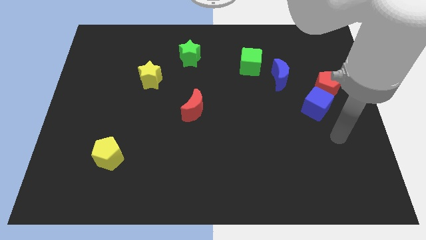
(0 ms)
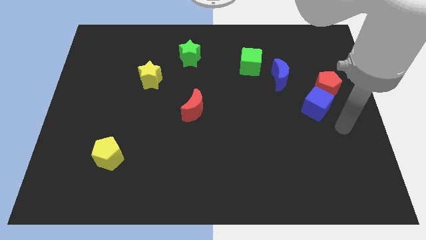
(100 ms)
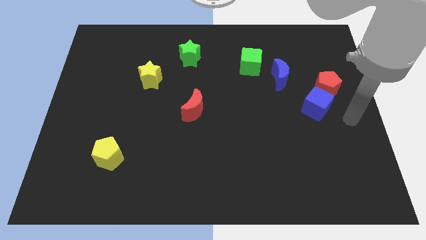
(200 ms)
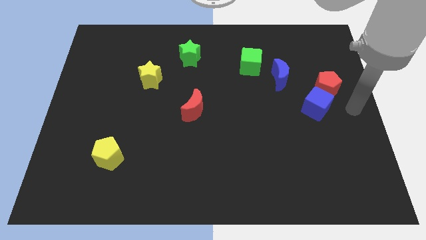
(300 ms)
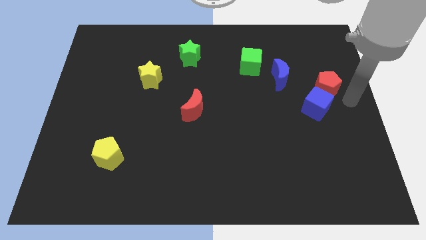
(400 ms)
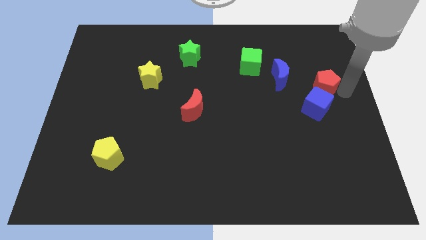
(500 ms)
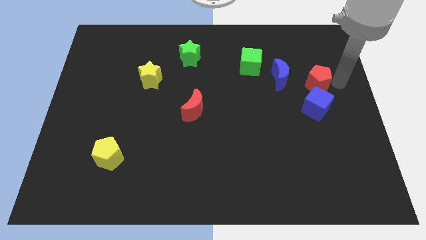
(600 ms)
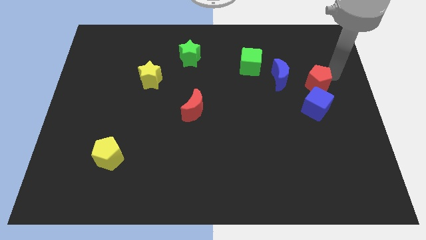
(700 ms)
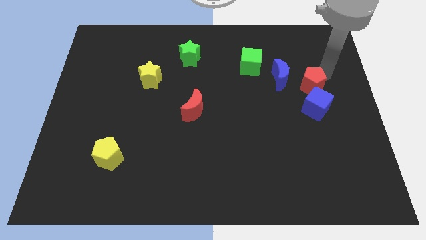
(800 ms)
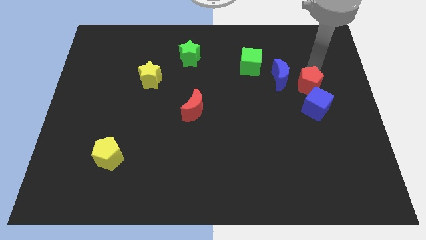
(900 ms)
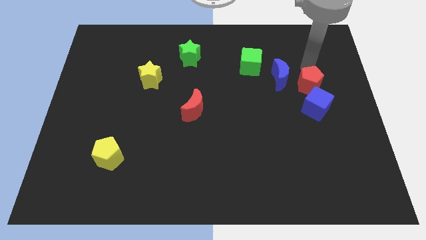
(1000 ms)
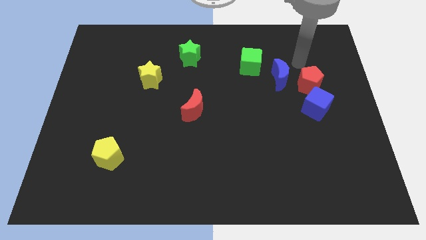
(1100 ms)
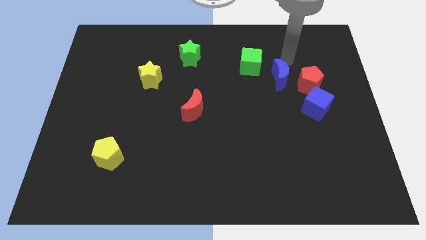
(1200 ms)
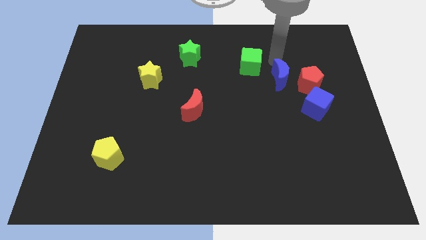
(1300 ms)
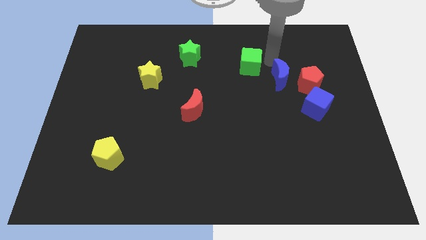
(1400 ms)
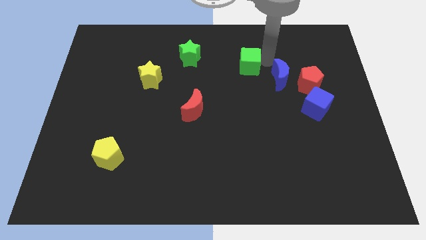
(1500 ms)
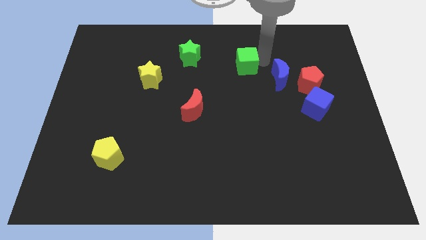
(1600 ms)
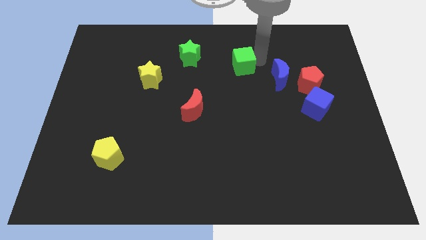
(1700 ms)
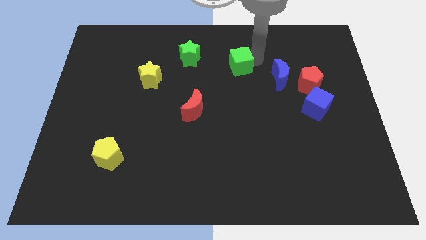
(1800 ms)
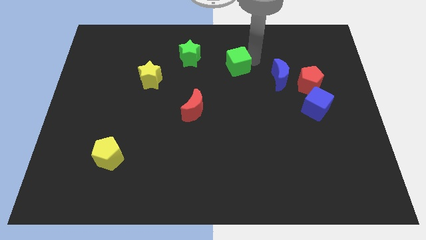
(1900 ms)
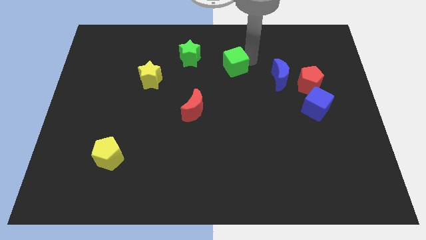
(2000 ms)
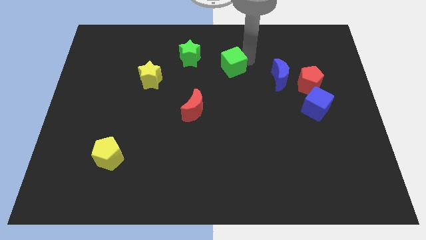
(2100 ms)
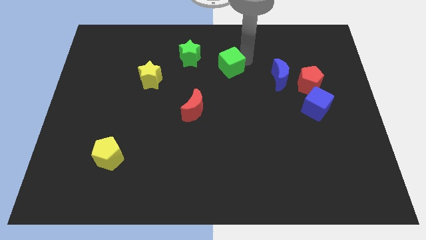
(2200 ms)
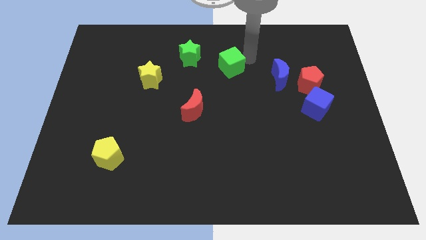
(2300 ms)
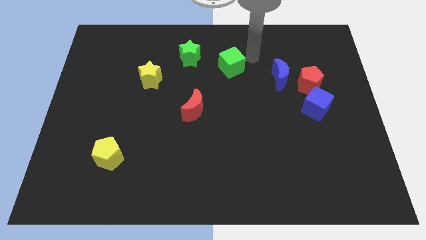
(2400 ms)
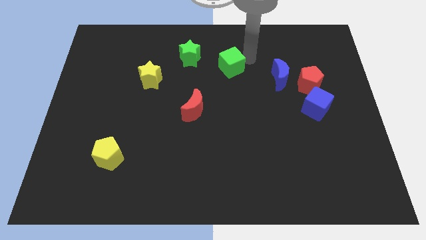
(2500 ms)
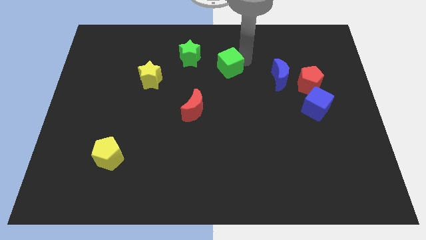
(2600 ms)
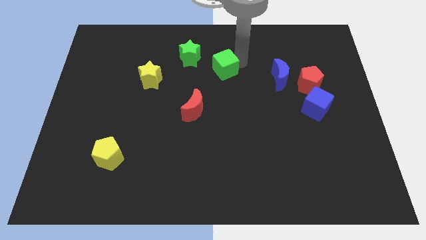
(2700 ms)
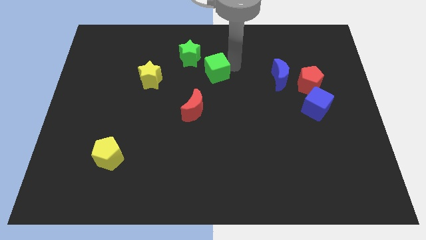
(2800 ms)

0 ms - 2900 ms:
slide the green cube a little bit left

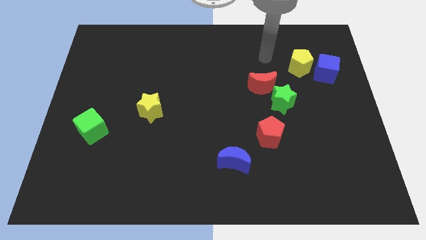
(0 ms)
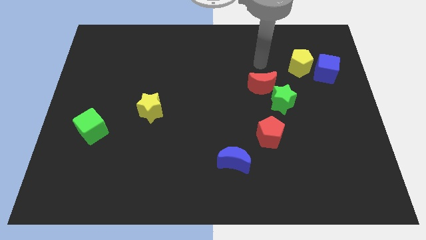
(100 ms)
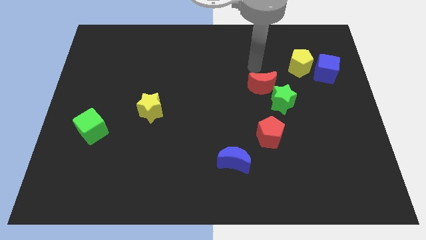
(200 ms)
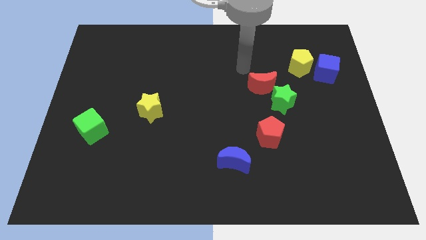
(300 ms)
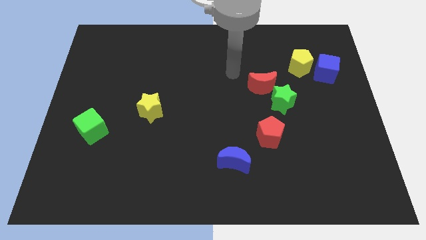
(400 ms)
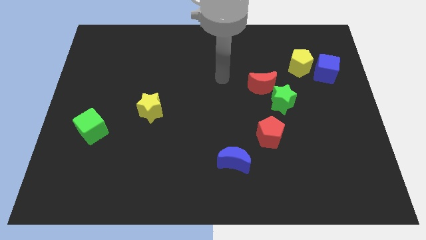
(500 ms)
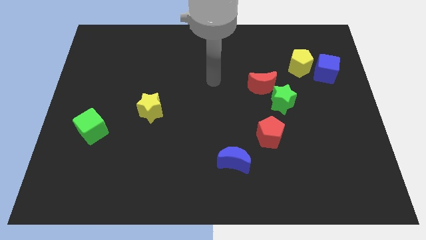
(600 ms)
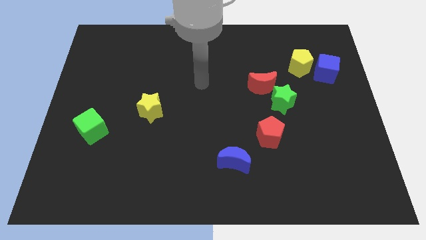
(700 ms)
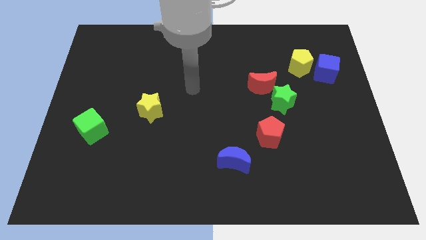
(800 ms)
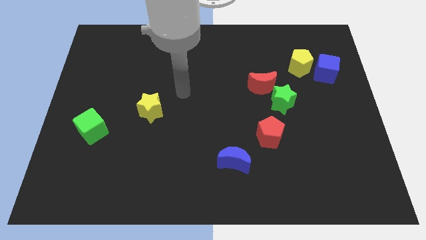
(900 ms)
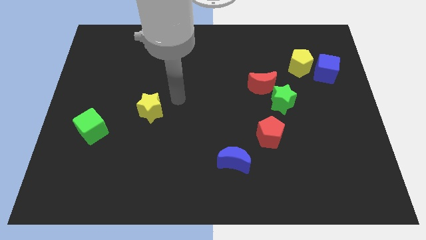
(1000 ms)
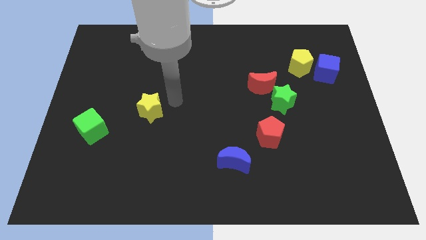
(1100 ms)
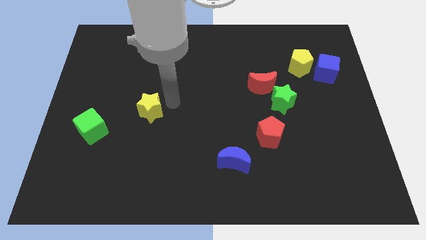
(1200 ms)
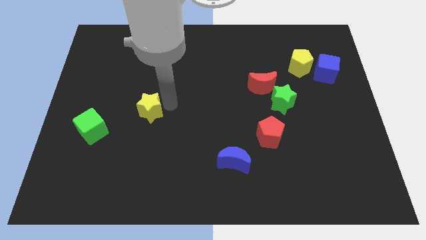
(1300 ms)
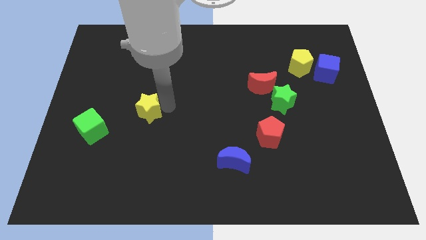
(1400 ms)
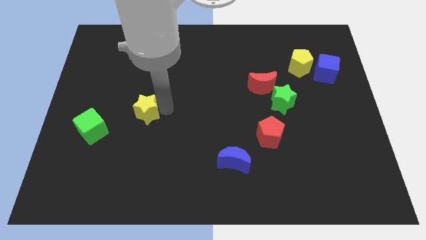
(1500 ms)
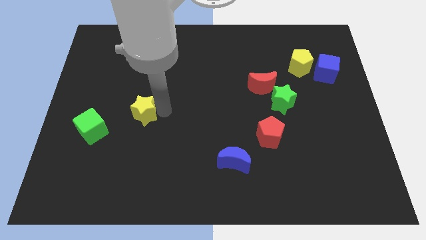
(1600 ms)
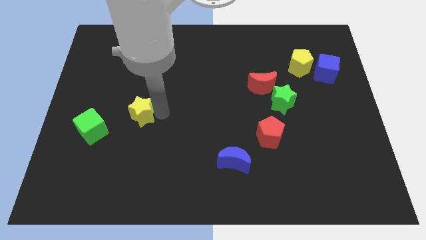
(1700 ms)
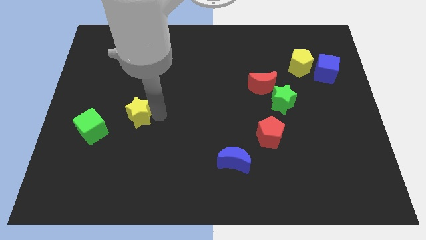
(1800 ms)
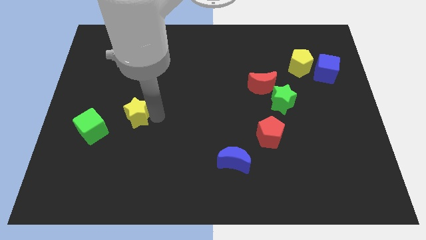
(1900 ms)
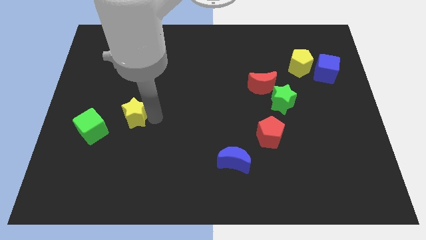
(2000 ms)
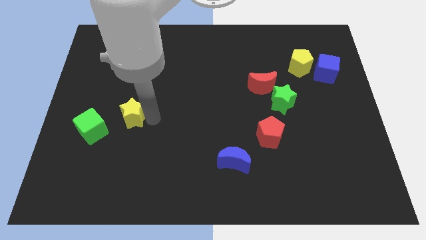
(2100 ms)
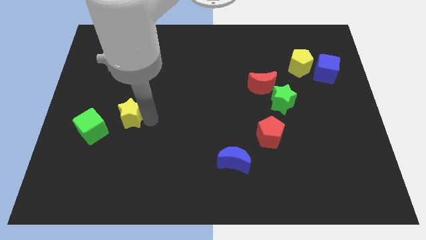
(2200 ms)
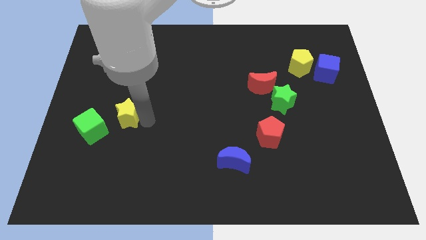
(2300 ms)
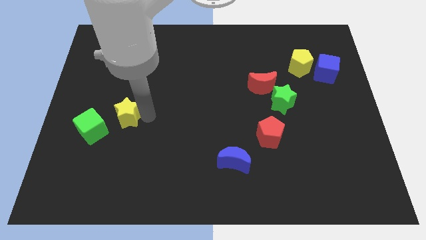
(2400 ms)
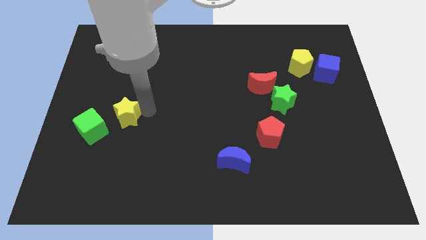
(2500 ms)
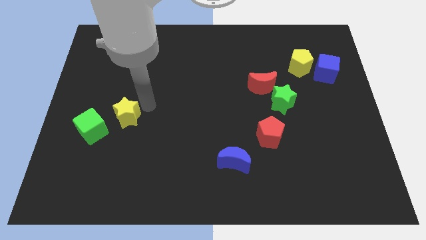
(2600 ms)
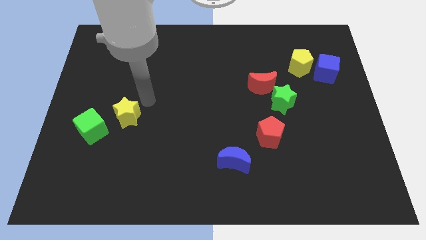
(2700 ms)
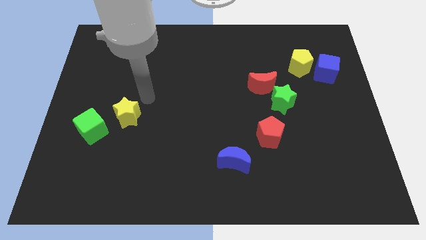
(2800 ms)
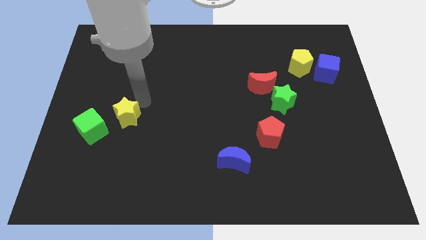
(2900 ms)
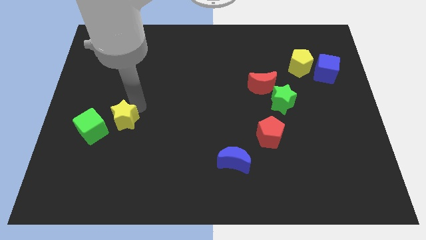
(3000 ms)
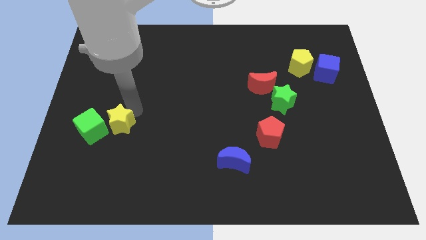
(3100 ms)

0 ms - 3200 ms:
slightly move the yellow star down and then left

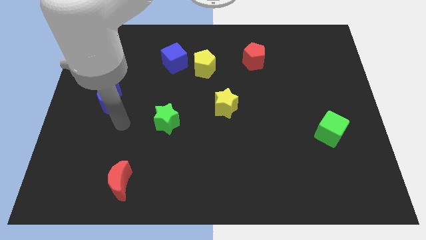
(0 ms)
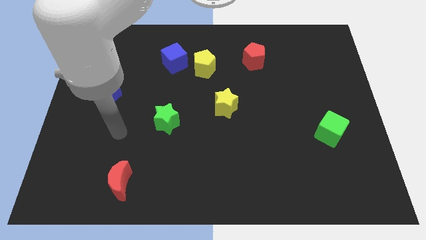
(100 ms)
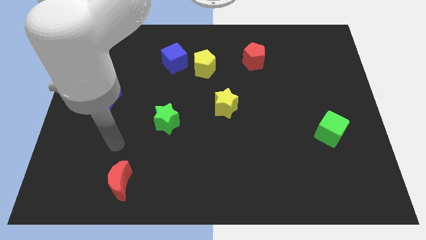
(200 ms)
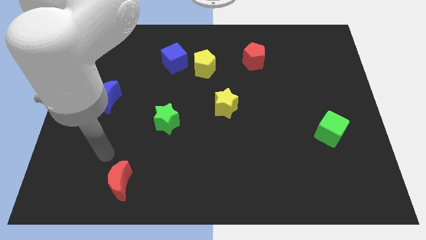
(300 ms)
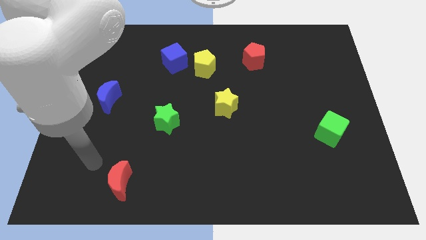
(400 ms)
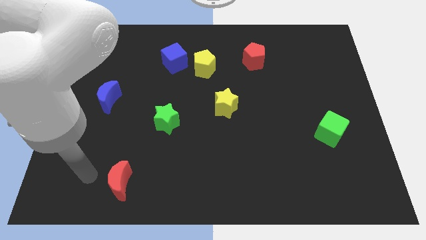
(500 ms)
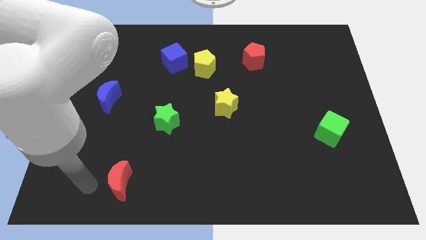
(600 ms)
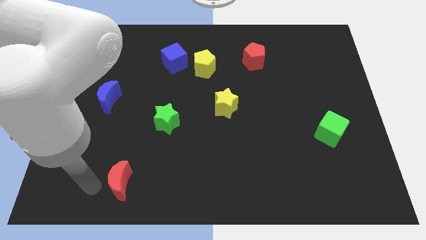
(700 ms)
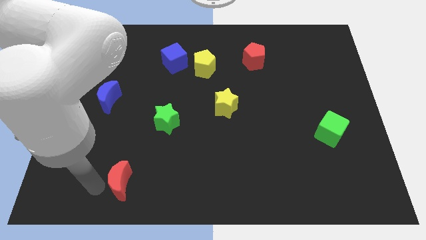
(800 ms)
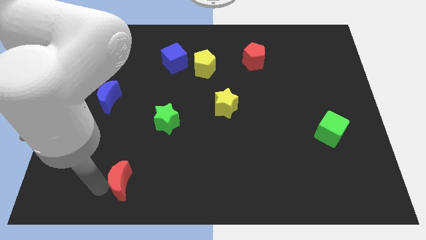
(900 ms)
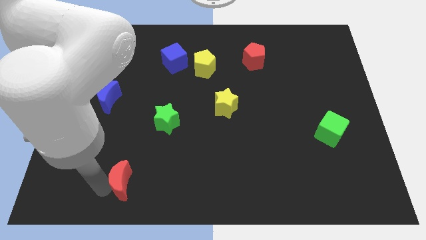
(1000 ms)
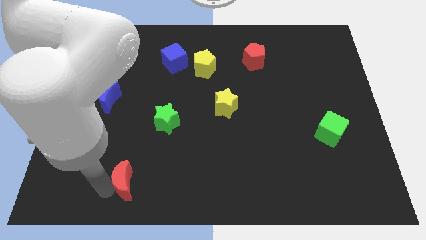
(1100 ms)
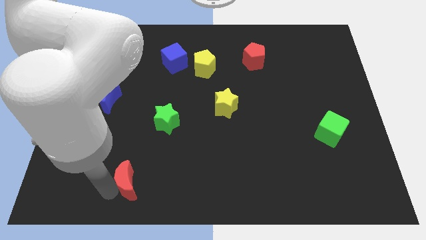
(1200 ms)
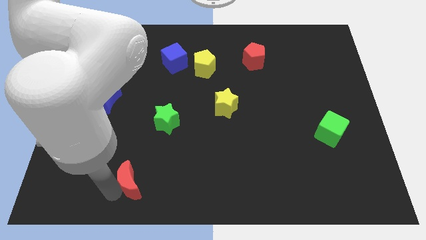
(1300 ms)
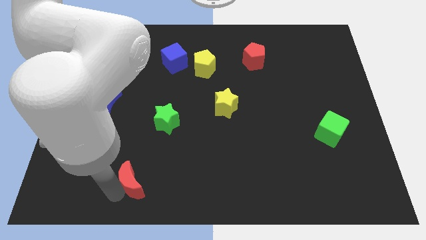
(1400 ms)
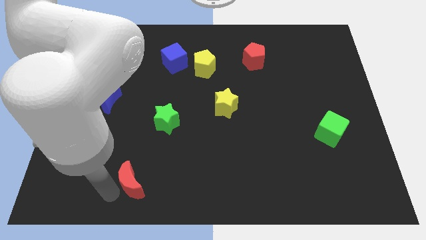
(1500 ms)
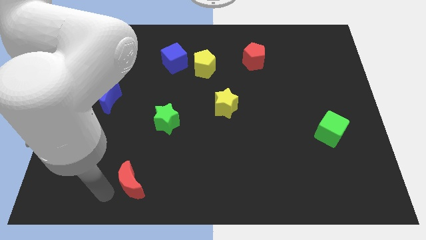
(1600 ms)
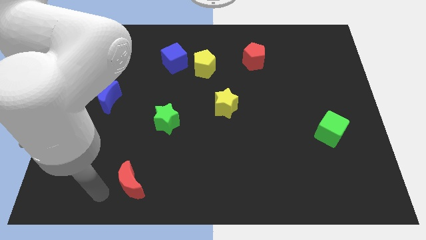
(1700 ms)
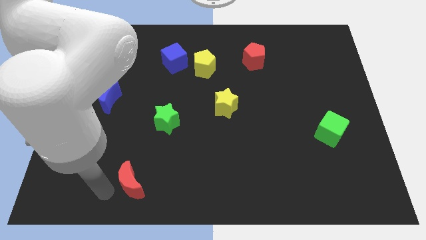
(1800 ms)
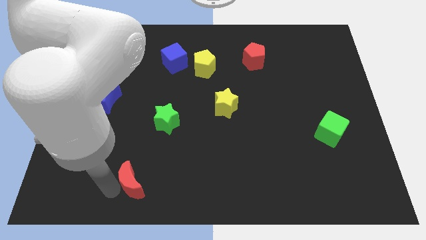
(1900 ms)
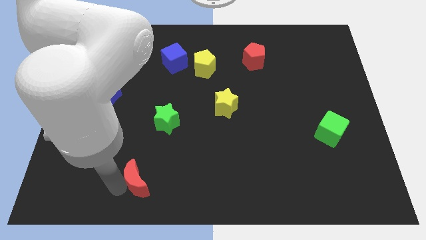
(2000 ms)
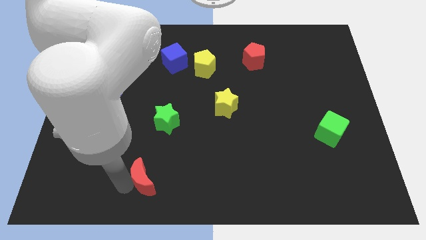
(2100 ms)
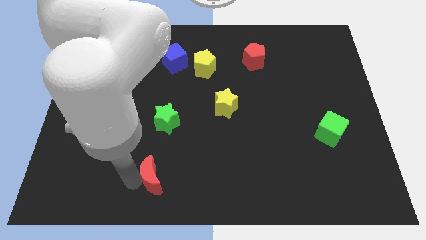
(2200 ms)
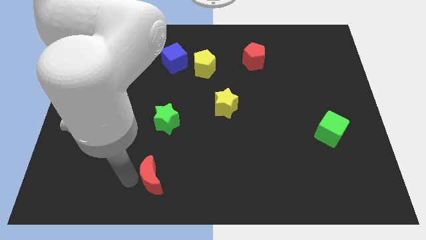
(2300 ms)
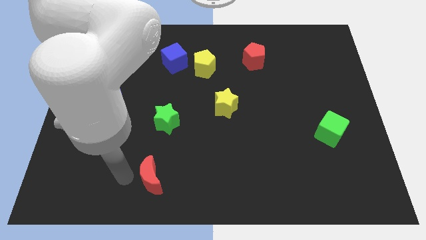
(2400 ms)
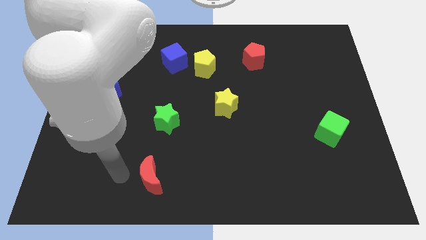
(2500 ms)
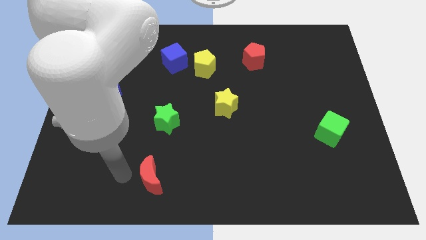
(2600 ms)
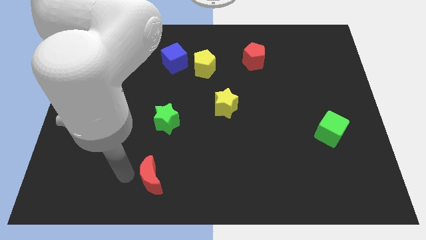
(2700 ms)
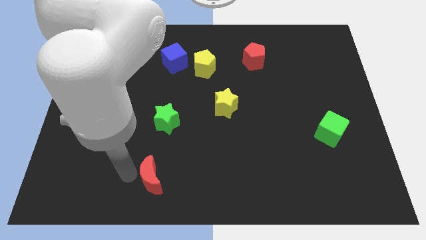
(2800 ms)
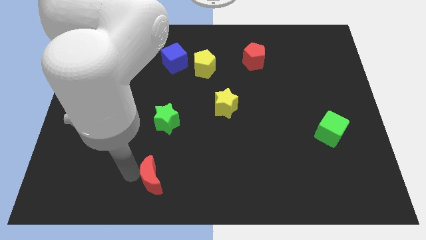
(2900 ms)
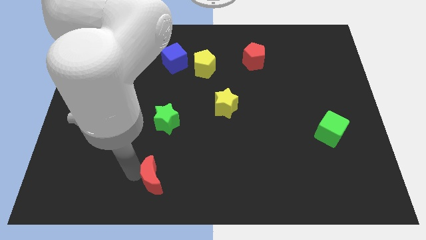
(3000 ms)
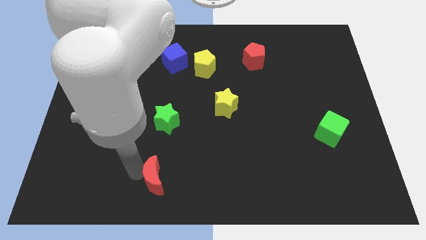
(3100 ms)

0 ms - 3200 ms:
slide the red moon to the right a little bit
